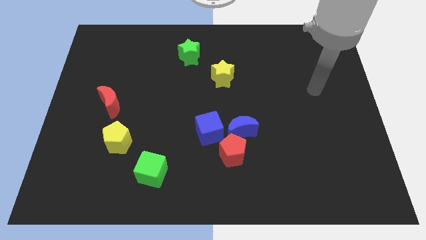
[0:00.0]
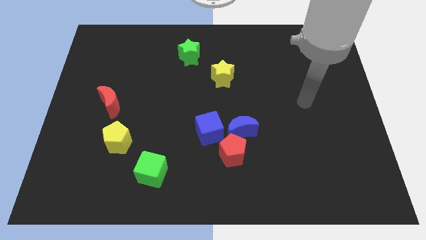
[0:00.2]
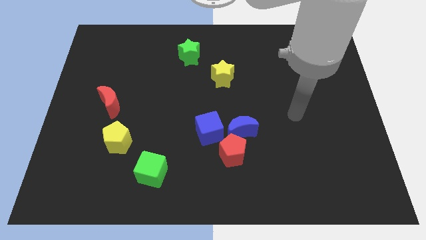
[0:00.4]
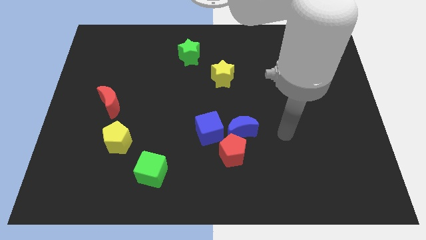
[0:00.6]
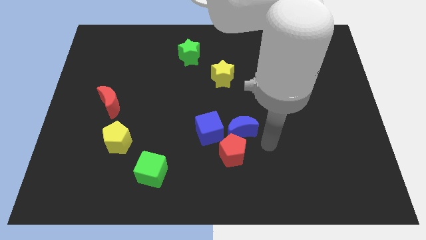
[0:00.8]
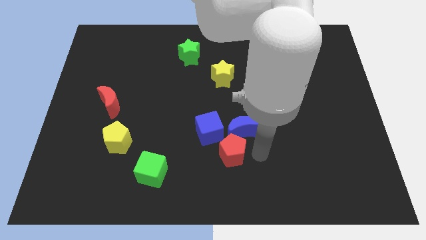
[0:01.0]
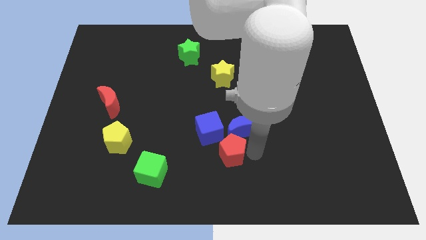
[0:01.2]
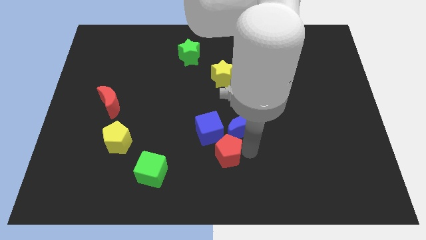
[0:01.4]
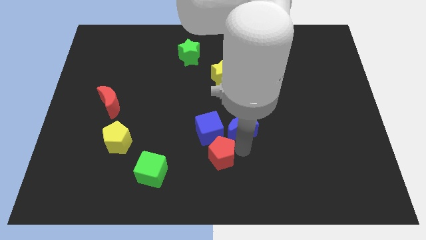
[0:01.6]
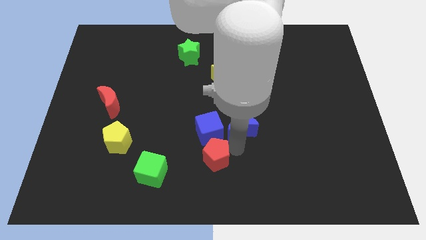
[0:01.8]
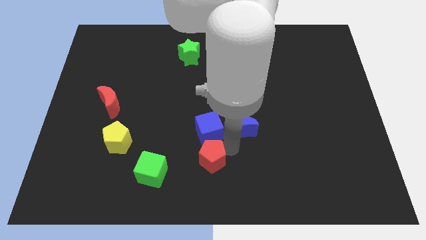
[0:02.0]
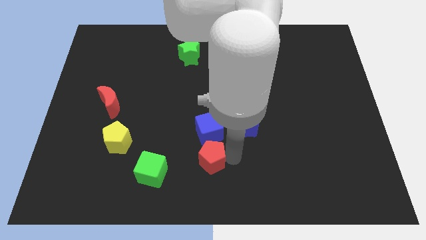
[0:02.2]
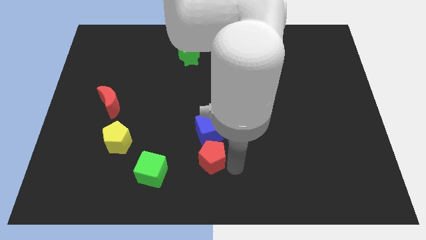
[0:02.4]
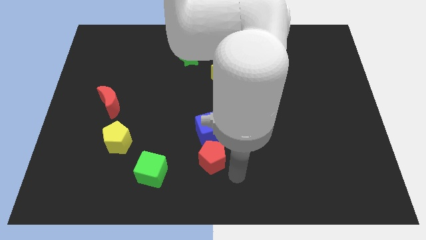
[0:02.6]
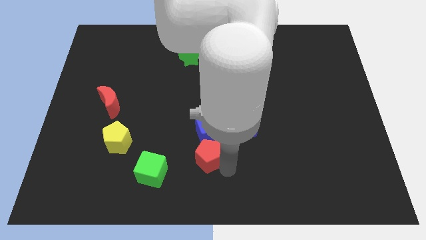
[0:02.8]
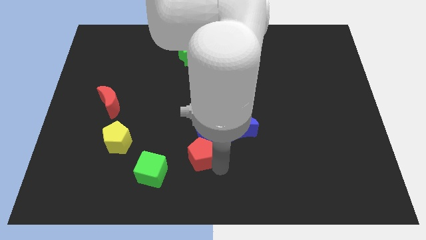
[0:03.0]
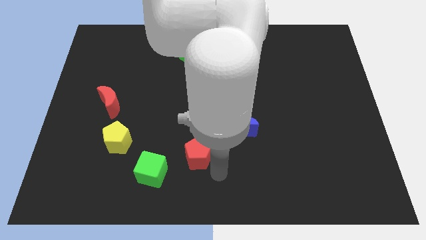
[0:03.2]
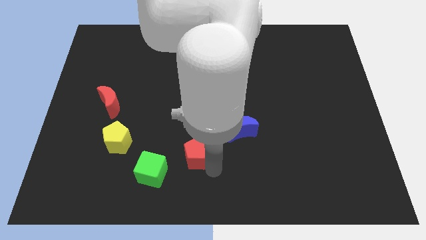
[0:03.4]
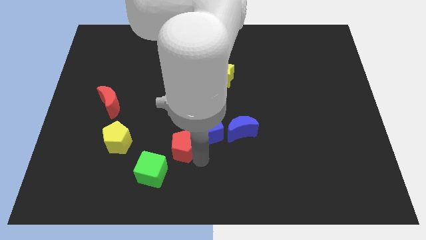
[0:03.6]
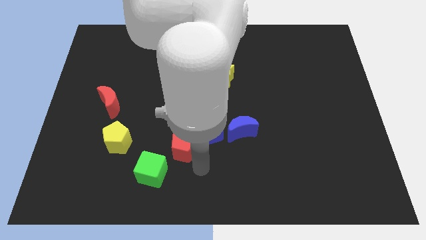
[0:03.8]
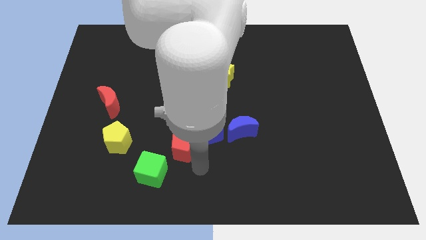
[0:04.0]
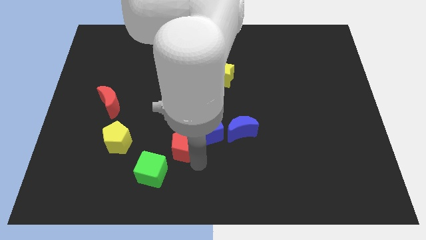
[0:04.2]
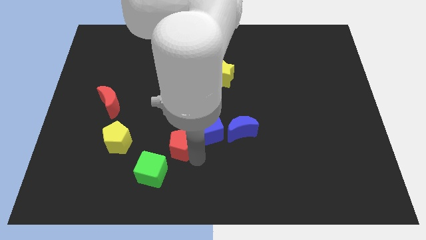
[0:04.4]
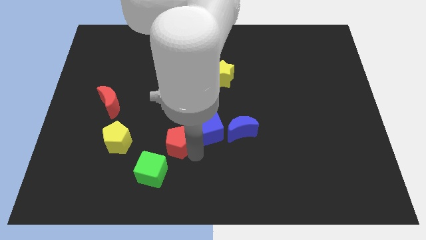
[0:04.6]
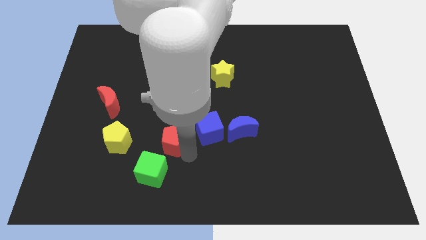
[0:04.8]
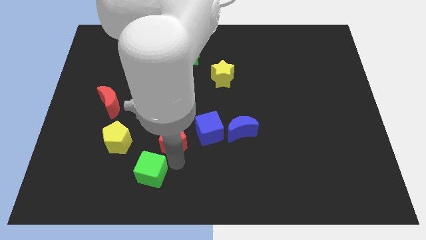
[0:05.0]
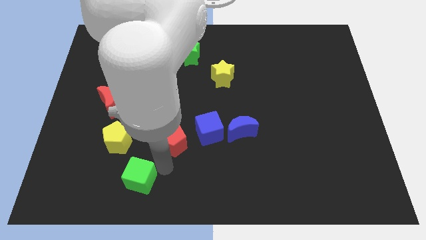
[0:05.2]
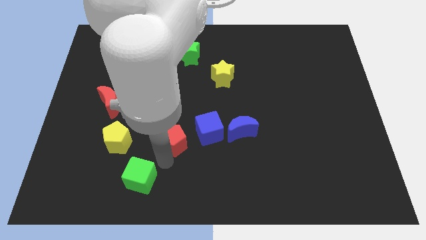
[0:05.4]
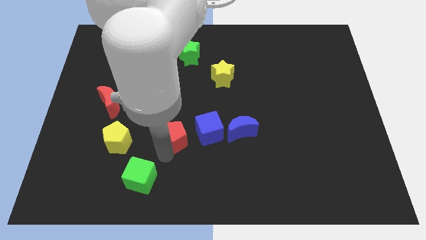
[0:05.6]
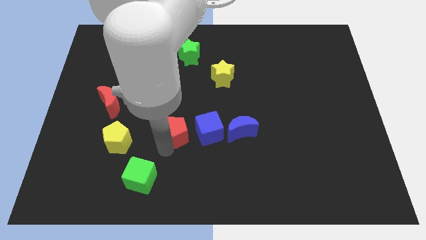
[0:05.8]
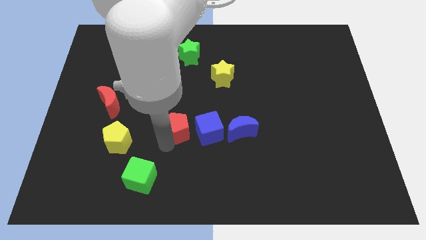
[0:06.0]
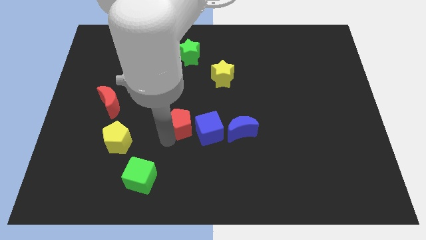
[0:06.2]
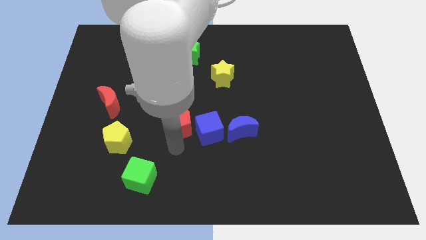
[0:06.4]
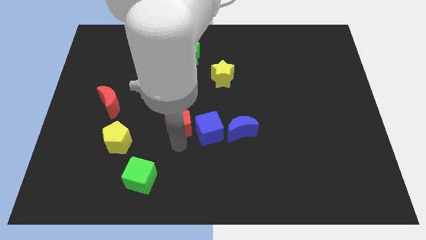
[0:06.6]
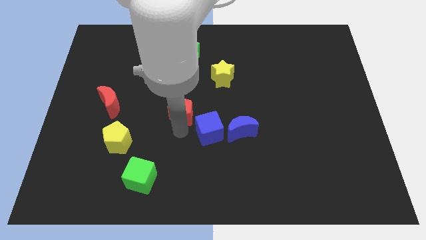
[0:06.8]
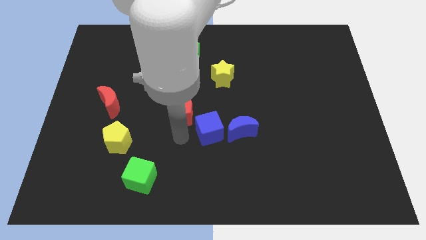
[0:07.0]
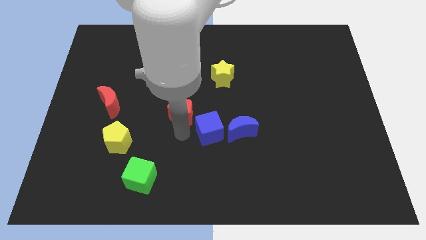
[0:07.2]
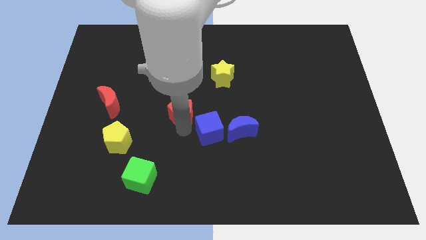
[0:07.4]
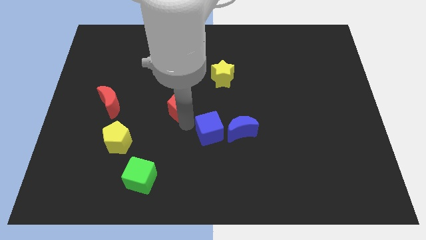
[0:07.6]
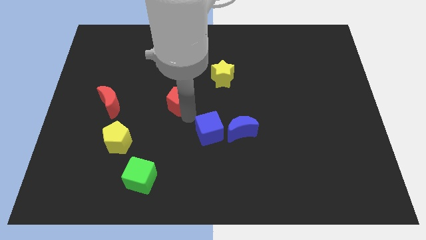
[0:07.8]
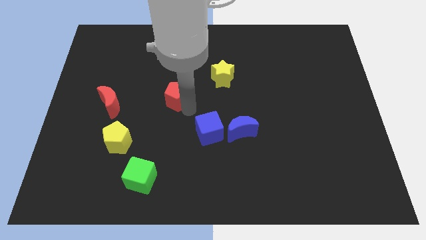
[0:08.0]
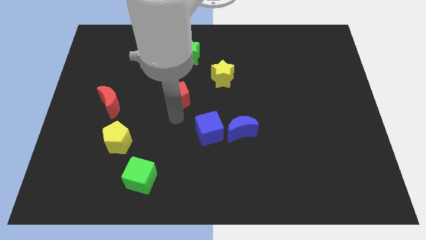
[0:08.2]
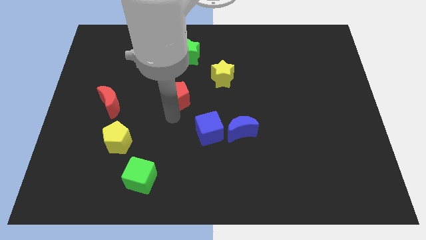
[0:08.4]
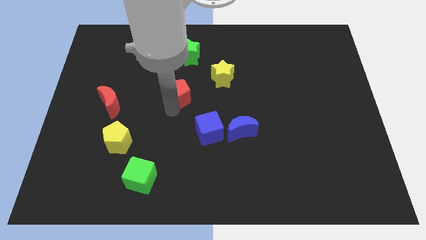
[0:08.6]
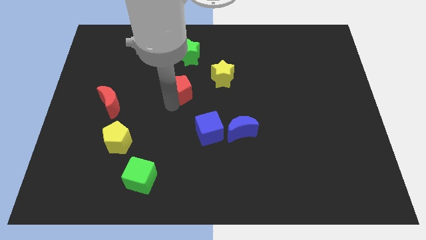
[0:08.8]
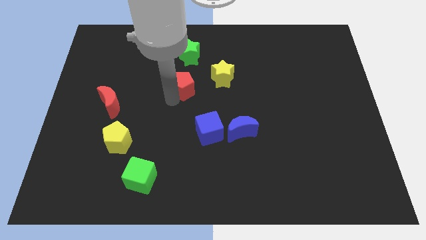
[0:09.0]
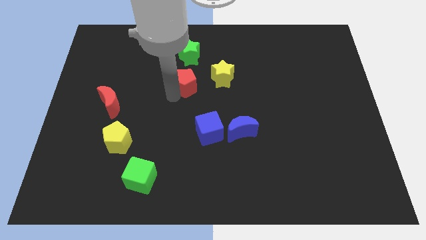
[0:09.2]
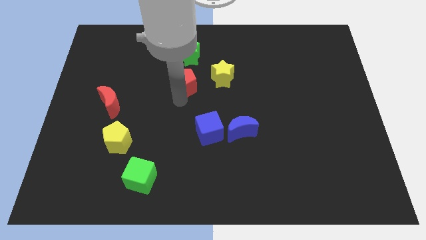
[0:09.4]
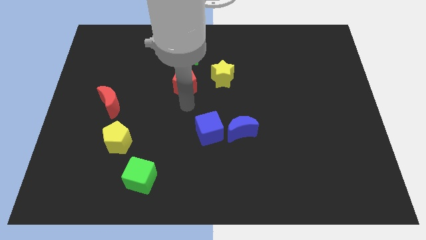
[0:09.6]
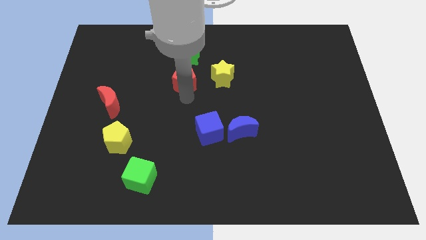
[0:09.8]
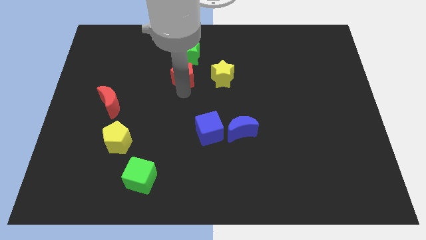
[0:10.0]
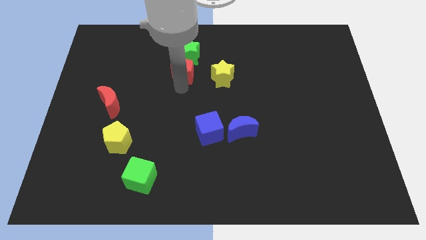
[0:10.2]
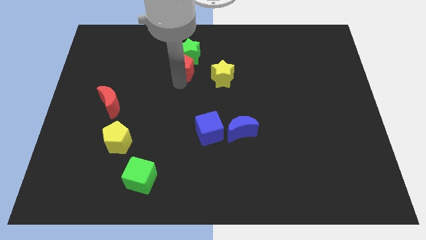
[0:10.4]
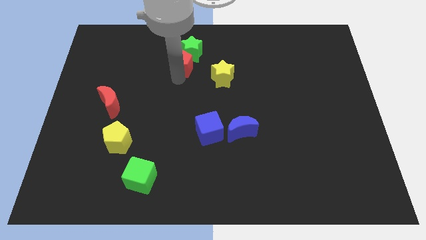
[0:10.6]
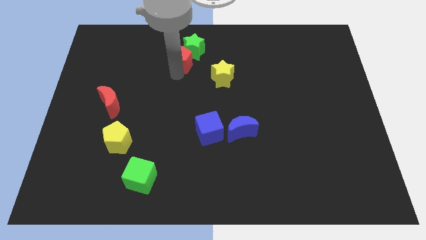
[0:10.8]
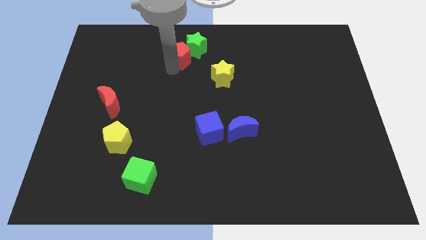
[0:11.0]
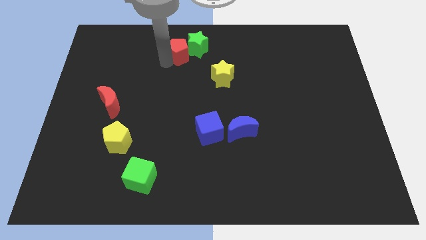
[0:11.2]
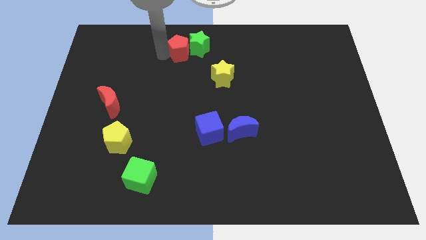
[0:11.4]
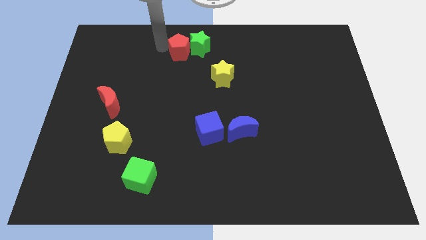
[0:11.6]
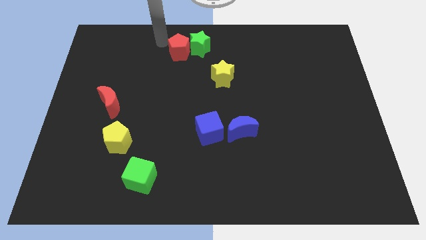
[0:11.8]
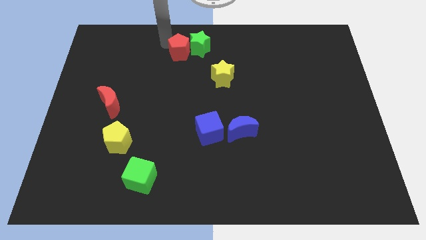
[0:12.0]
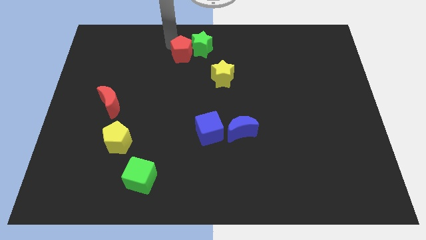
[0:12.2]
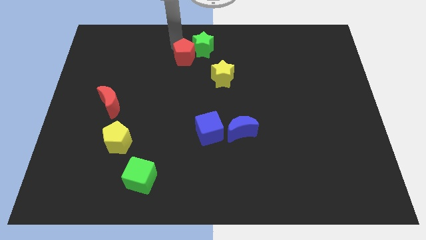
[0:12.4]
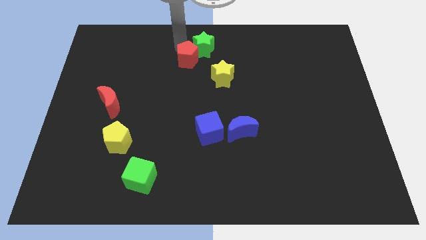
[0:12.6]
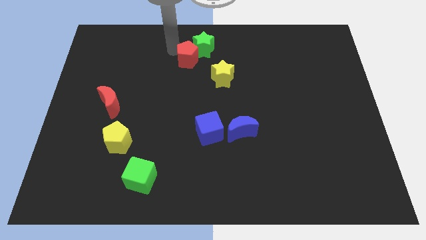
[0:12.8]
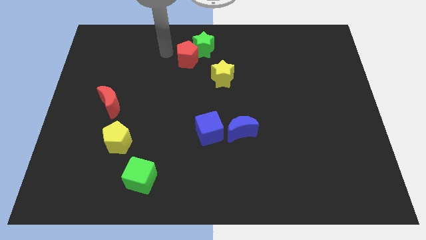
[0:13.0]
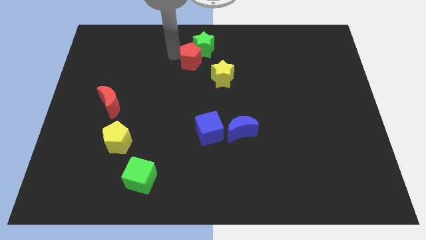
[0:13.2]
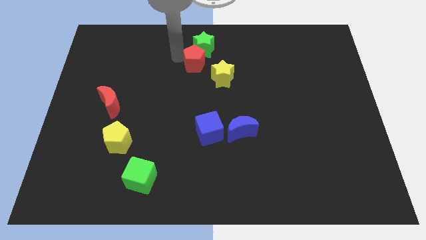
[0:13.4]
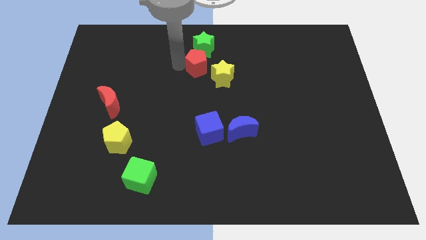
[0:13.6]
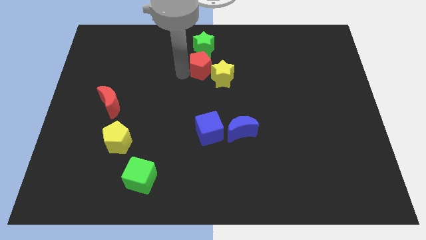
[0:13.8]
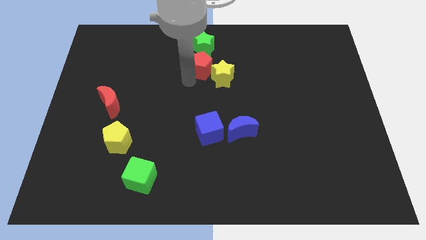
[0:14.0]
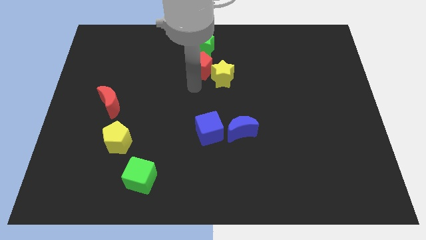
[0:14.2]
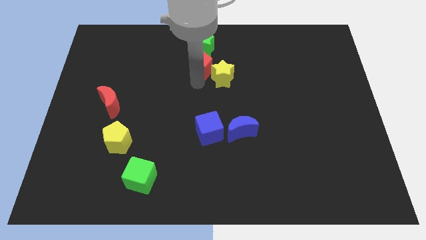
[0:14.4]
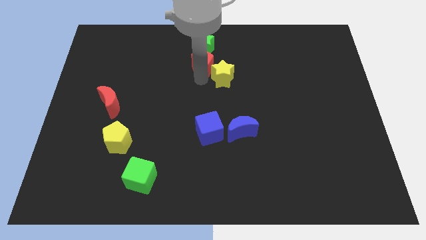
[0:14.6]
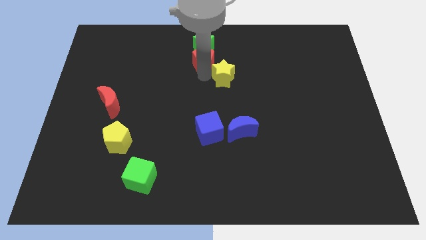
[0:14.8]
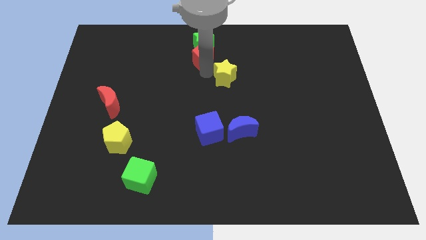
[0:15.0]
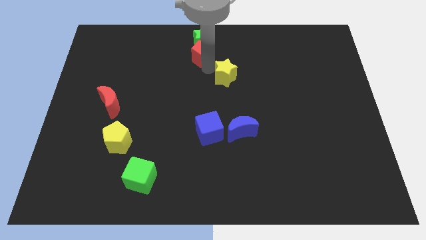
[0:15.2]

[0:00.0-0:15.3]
slide the red pentagon to the towards your base
